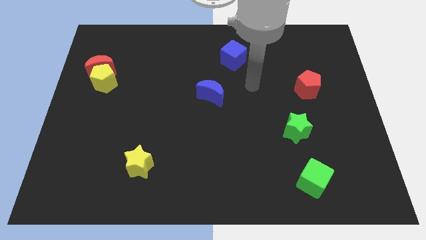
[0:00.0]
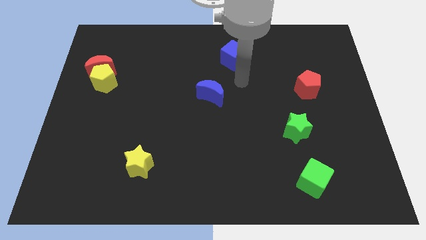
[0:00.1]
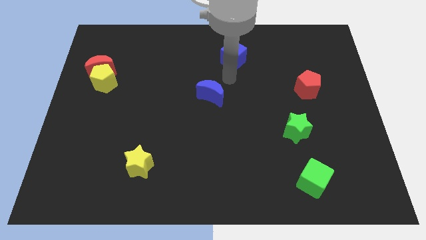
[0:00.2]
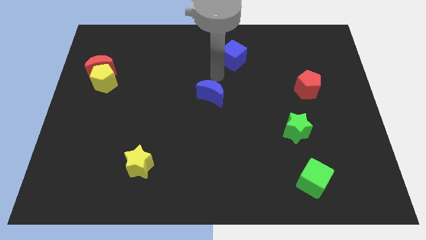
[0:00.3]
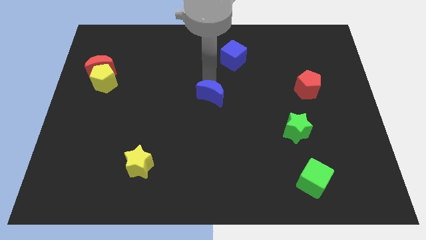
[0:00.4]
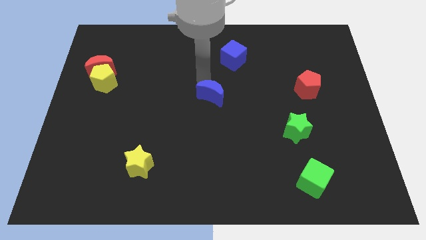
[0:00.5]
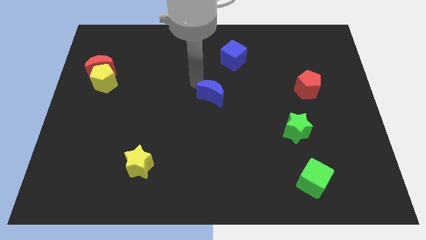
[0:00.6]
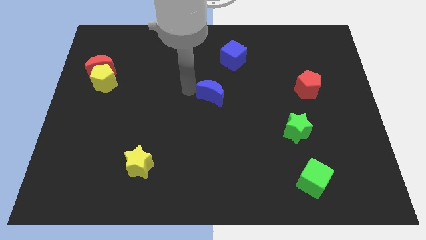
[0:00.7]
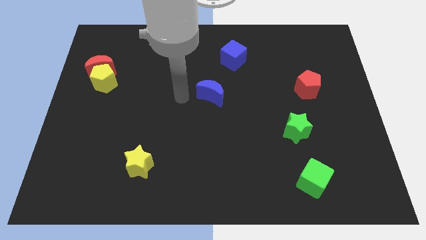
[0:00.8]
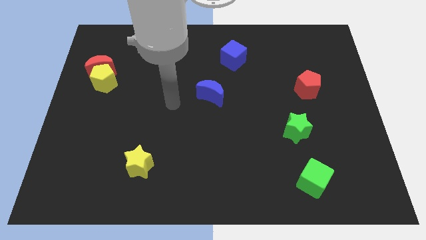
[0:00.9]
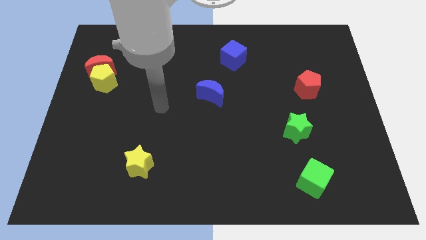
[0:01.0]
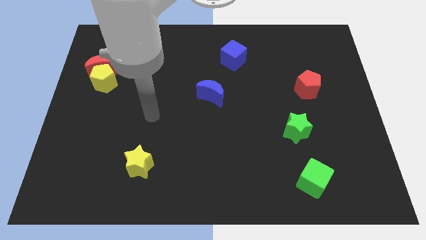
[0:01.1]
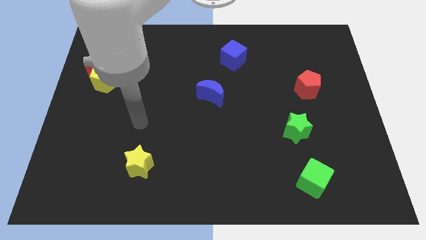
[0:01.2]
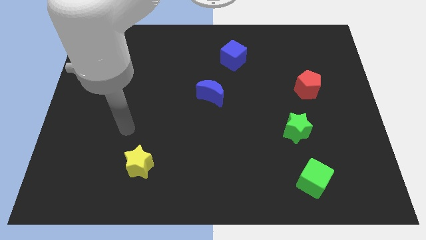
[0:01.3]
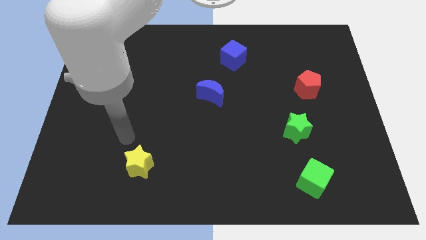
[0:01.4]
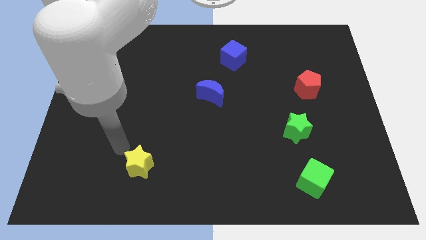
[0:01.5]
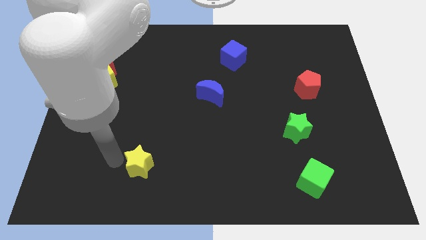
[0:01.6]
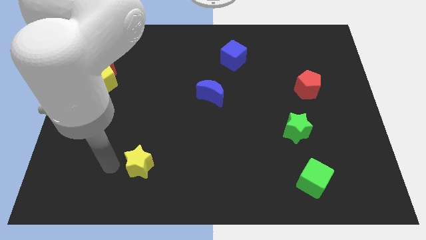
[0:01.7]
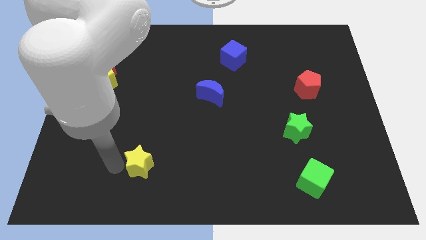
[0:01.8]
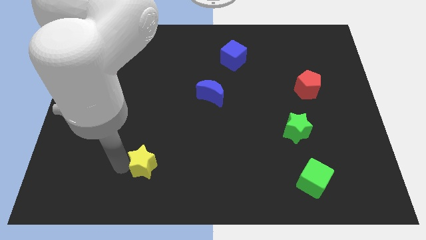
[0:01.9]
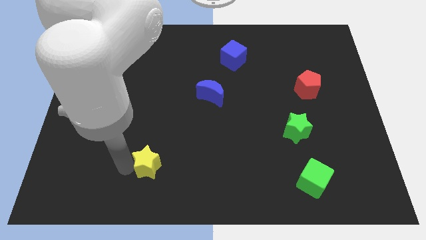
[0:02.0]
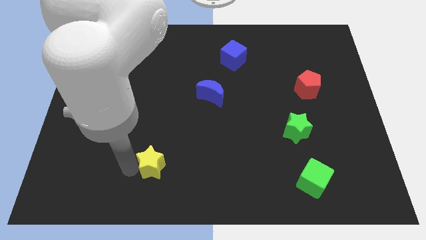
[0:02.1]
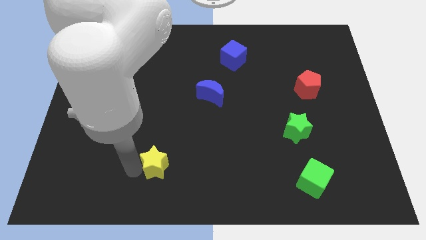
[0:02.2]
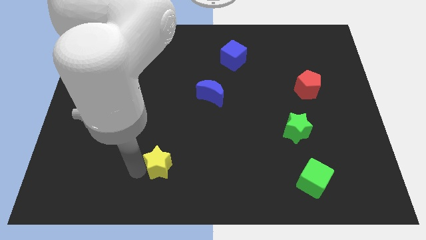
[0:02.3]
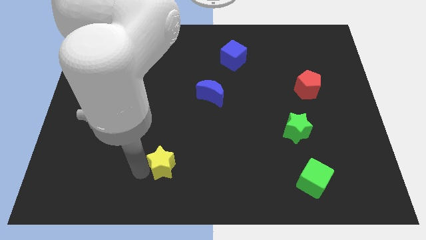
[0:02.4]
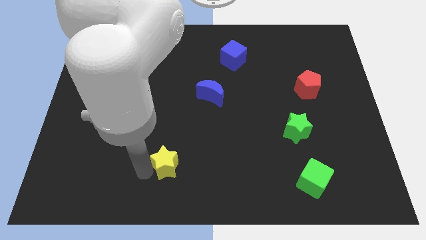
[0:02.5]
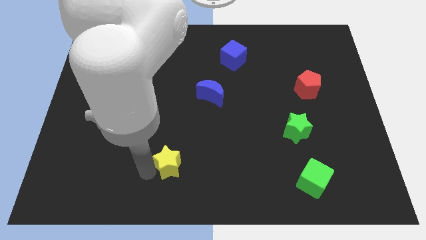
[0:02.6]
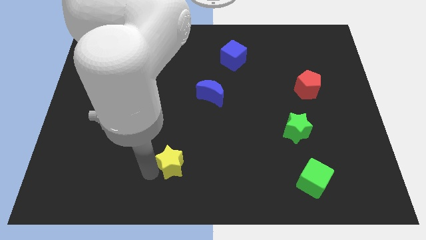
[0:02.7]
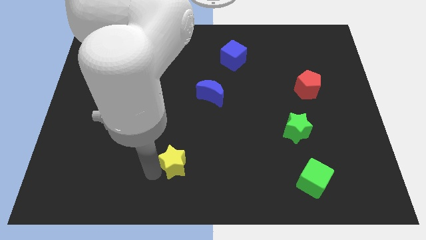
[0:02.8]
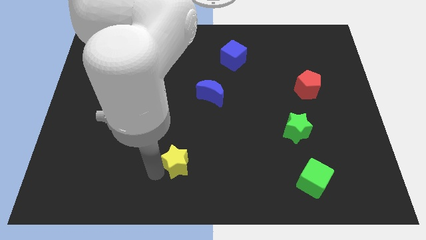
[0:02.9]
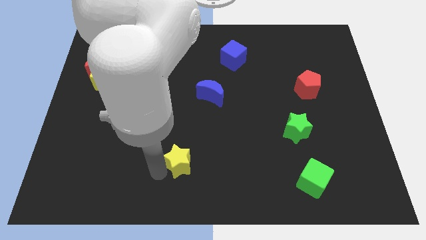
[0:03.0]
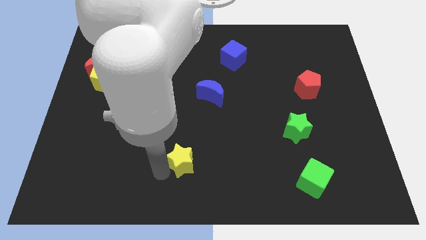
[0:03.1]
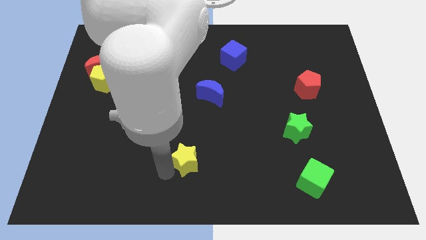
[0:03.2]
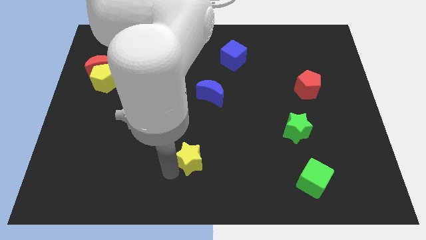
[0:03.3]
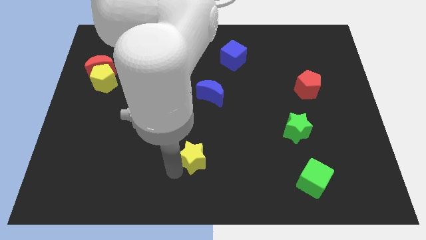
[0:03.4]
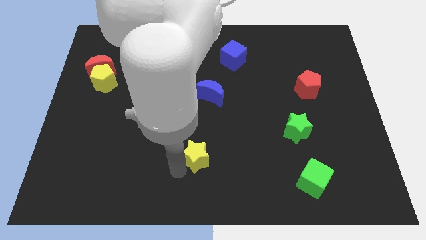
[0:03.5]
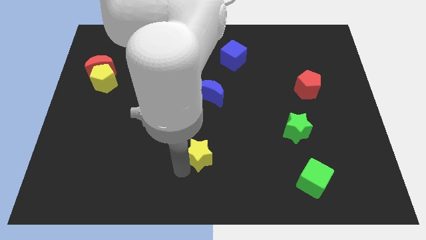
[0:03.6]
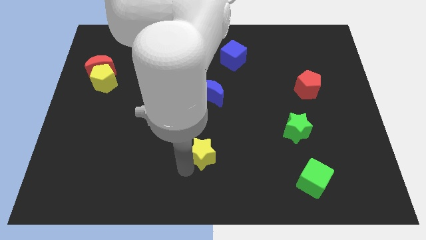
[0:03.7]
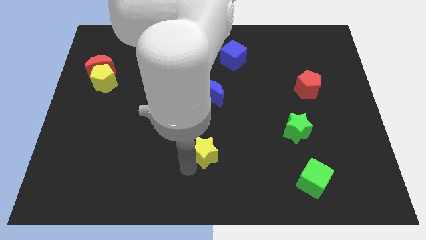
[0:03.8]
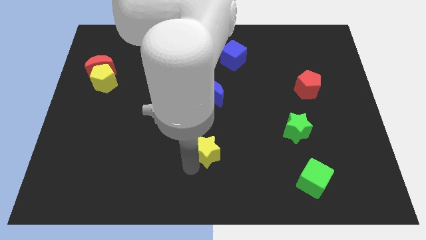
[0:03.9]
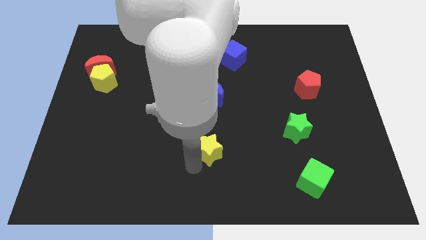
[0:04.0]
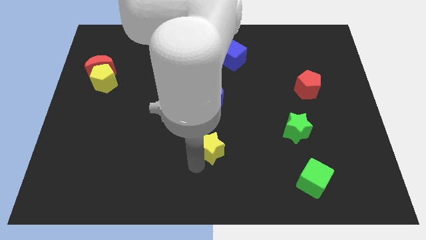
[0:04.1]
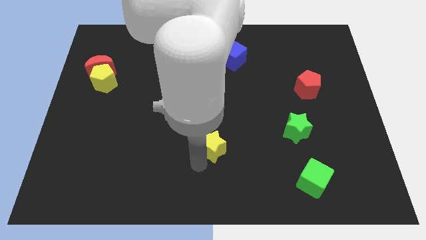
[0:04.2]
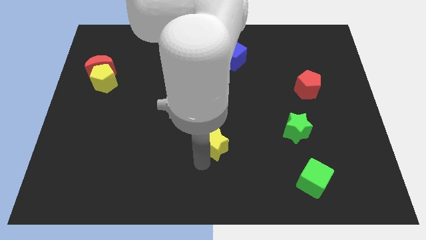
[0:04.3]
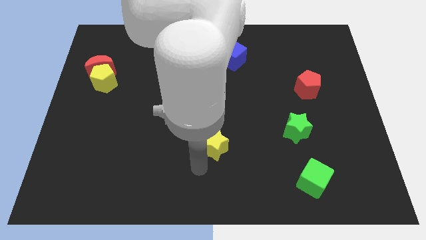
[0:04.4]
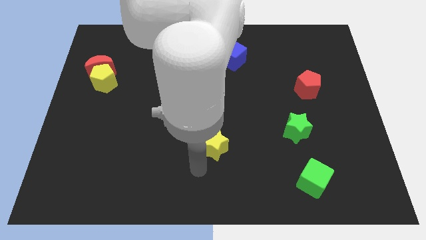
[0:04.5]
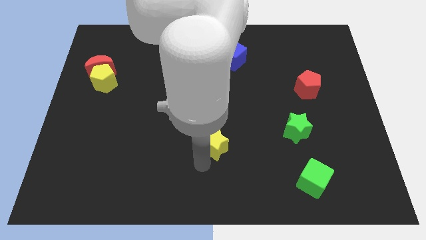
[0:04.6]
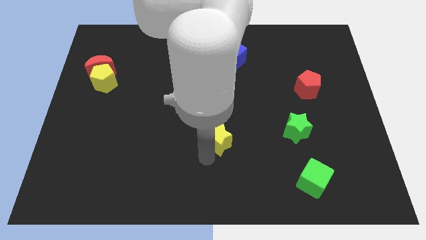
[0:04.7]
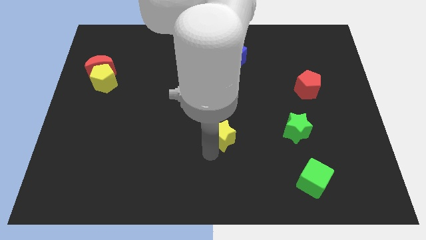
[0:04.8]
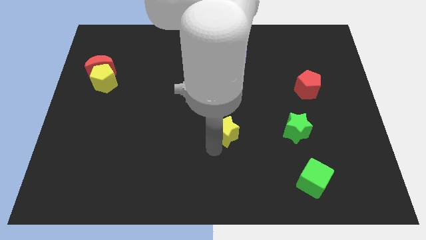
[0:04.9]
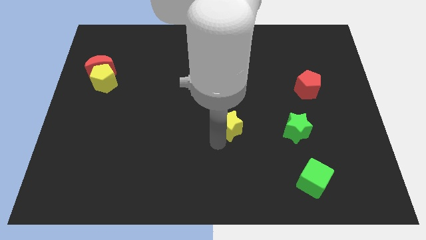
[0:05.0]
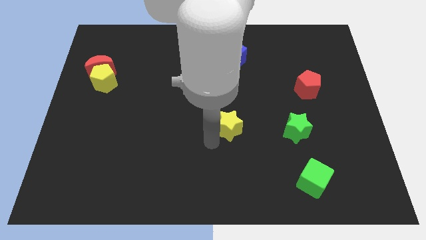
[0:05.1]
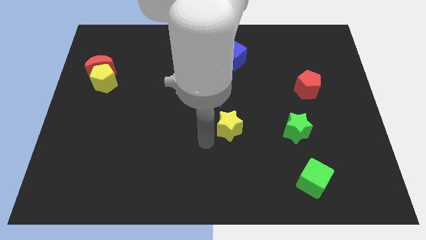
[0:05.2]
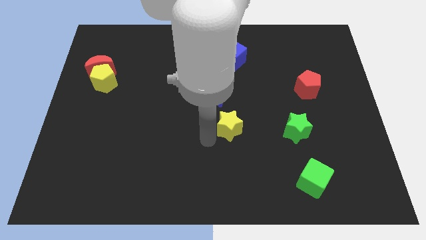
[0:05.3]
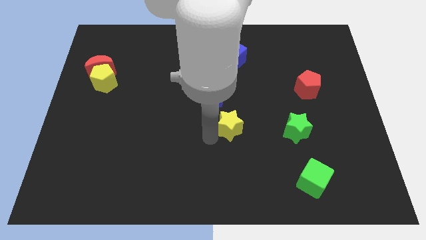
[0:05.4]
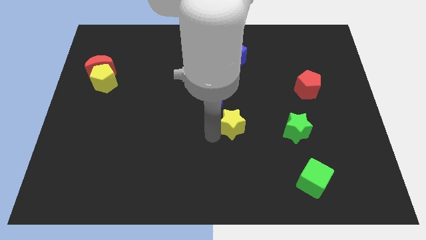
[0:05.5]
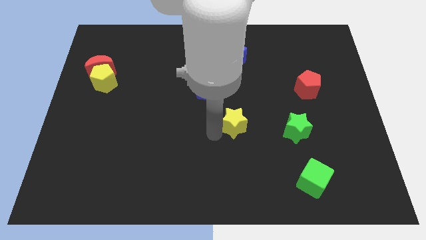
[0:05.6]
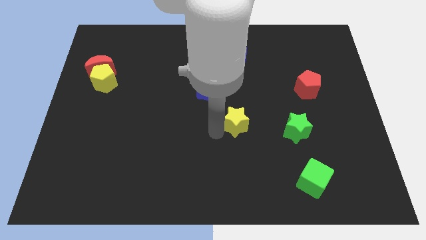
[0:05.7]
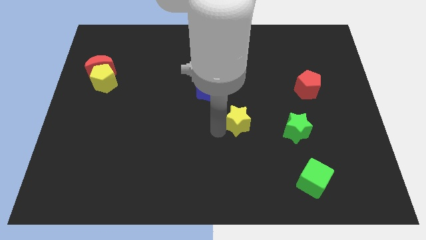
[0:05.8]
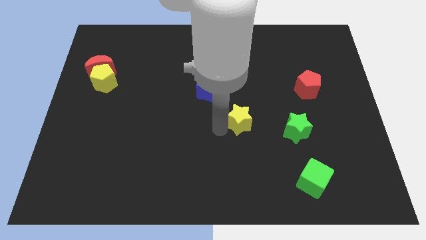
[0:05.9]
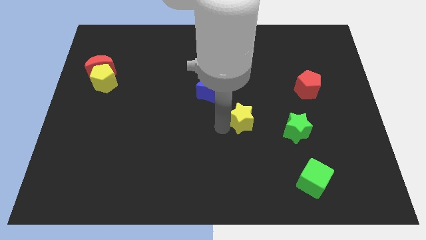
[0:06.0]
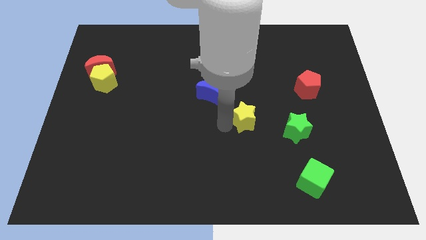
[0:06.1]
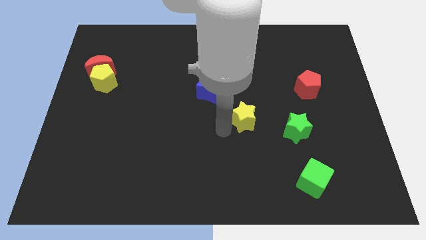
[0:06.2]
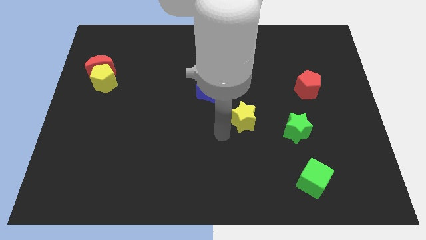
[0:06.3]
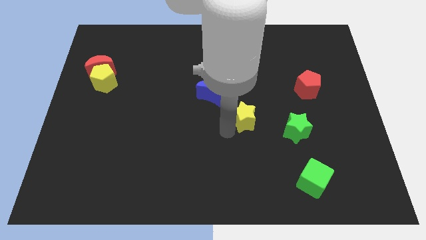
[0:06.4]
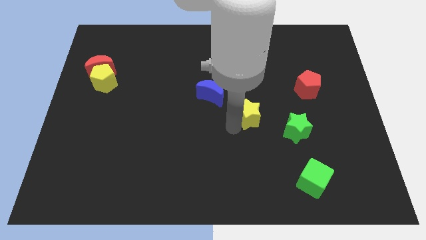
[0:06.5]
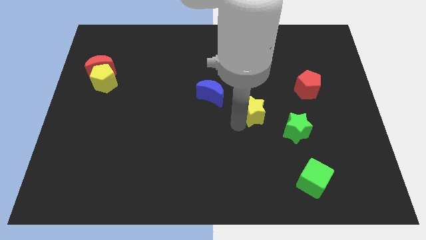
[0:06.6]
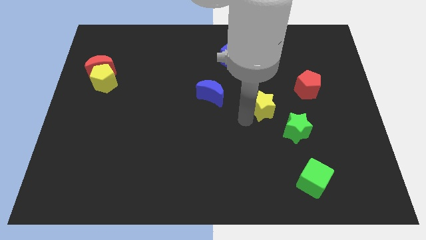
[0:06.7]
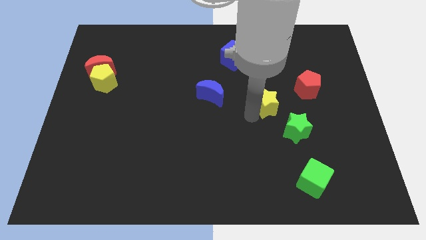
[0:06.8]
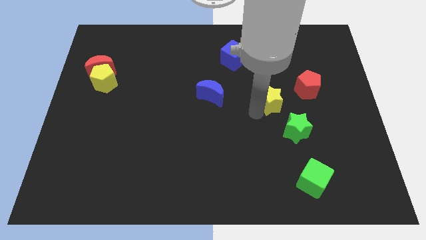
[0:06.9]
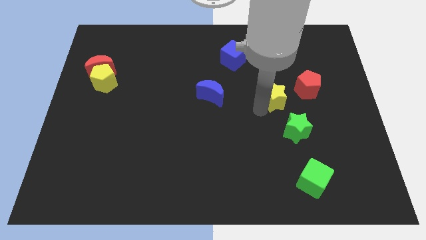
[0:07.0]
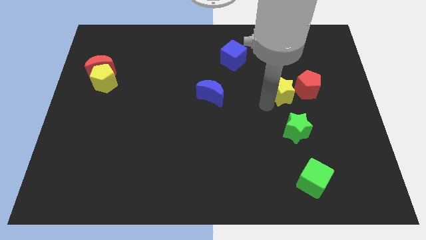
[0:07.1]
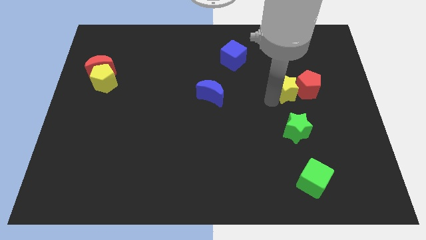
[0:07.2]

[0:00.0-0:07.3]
push the yellow star to the red pentagon
